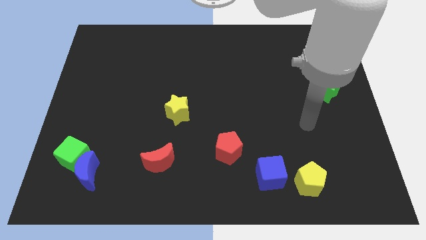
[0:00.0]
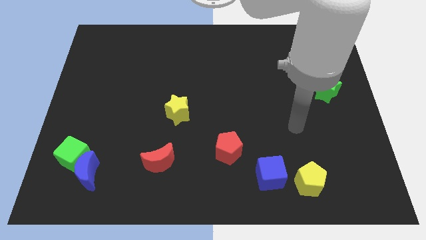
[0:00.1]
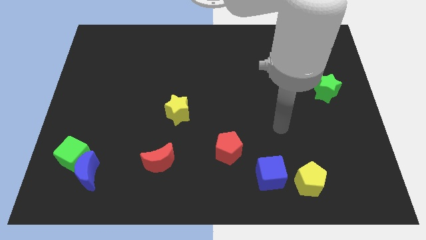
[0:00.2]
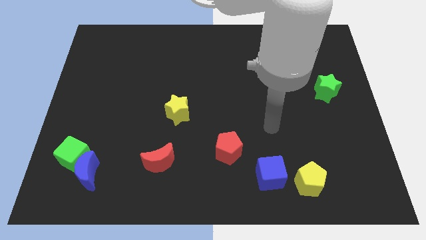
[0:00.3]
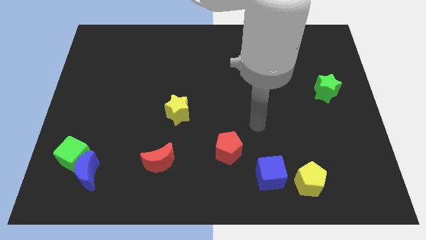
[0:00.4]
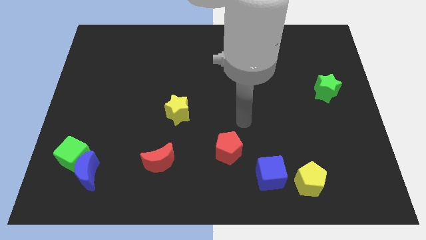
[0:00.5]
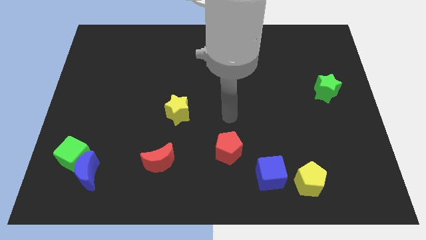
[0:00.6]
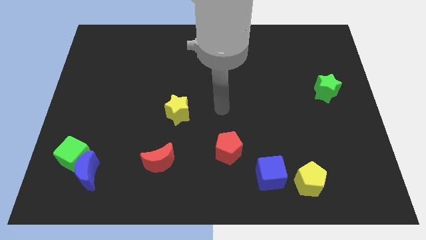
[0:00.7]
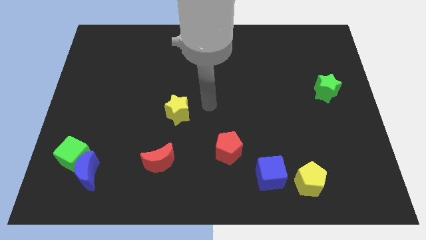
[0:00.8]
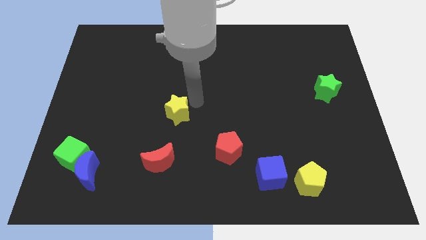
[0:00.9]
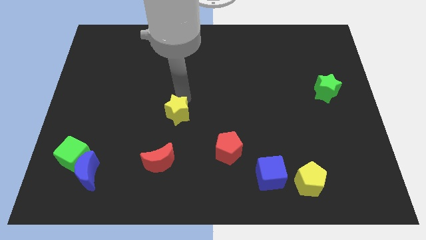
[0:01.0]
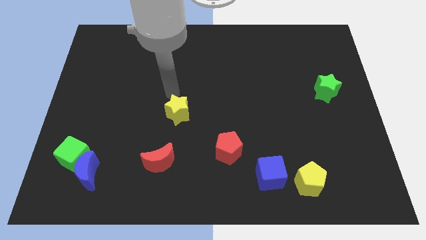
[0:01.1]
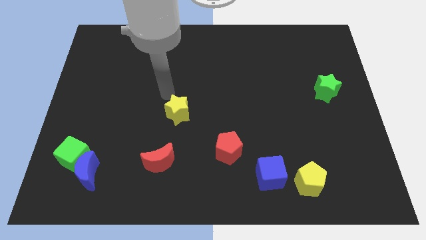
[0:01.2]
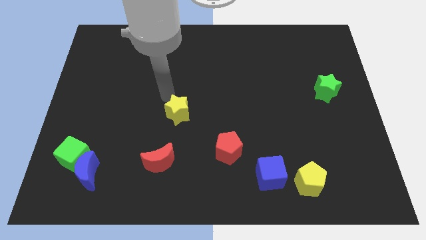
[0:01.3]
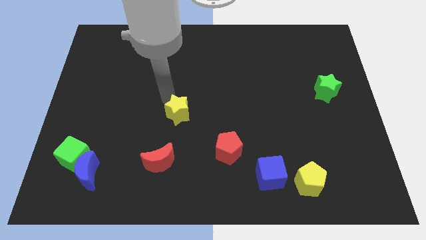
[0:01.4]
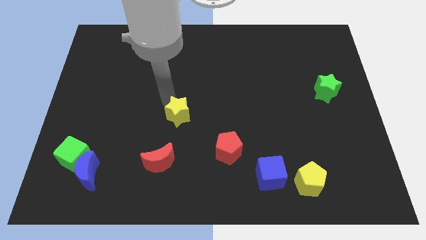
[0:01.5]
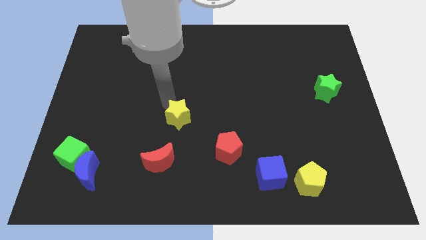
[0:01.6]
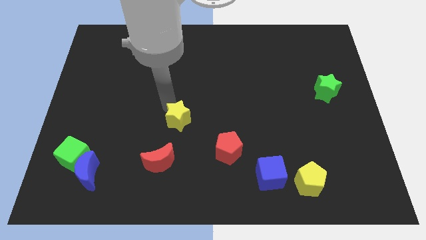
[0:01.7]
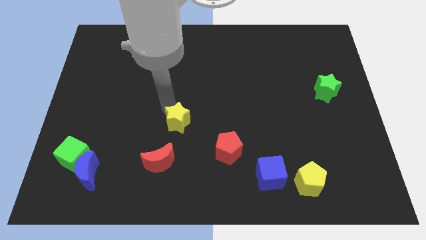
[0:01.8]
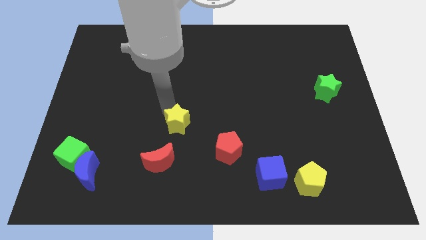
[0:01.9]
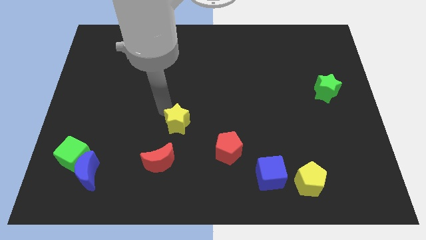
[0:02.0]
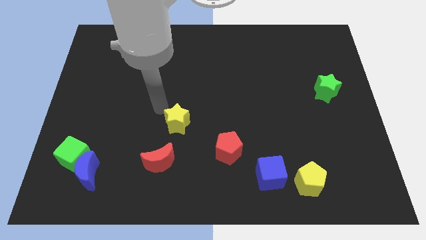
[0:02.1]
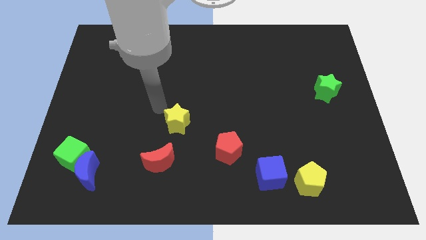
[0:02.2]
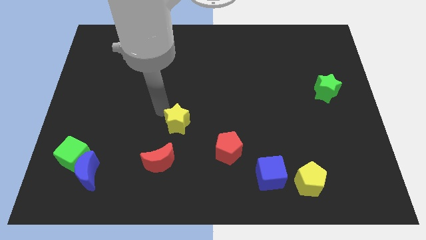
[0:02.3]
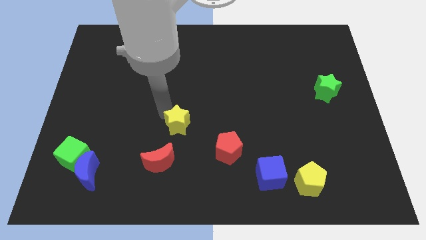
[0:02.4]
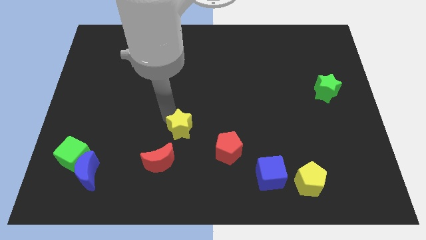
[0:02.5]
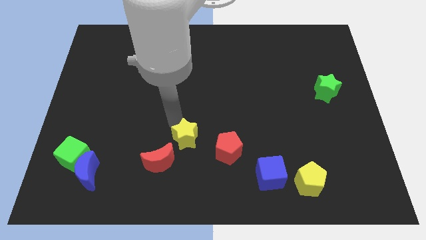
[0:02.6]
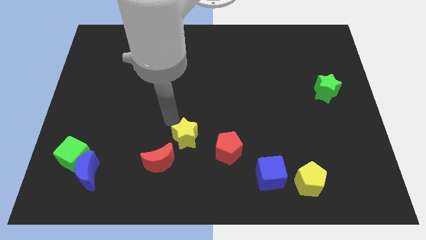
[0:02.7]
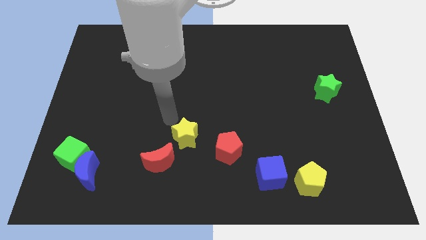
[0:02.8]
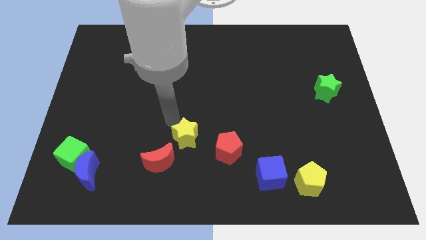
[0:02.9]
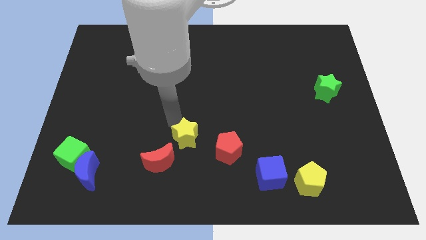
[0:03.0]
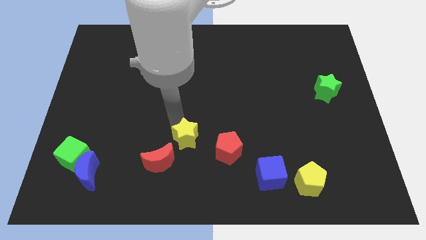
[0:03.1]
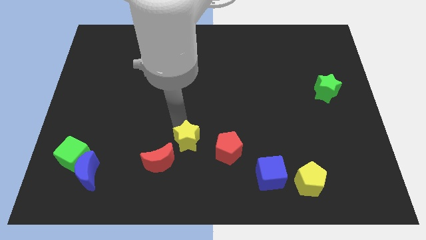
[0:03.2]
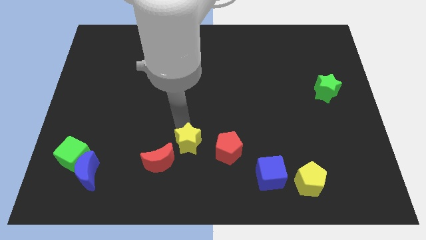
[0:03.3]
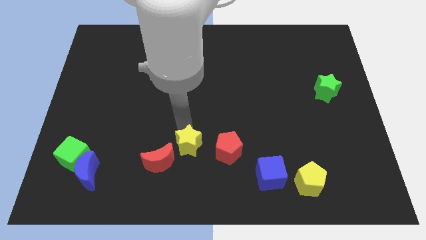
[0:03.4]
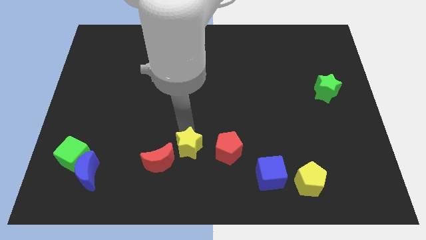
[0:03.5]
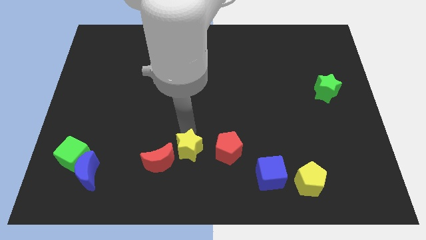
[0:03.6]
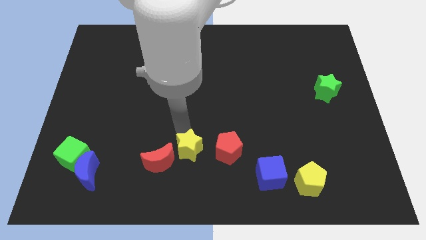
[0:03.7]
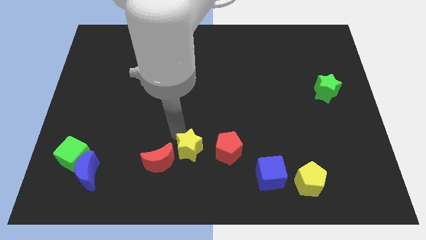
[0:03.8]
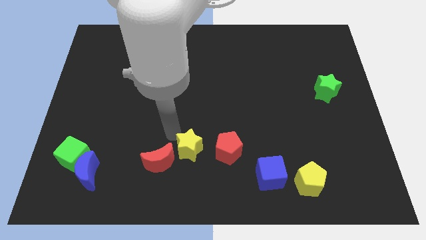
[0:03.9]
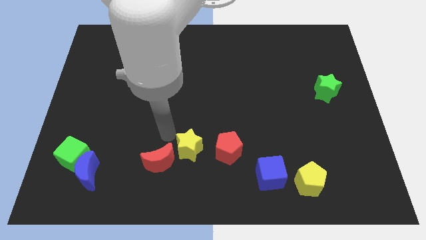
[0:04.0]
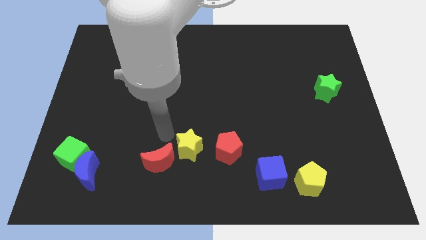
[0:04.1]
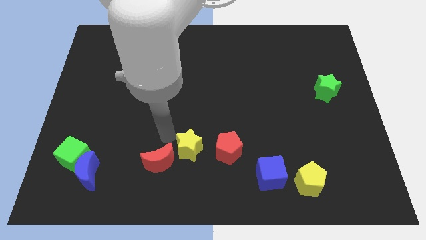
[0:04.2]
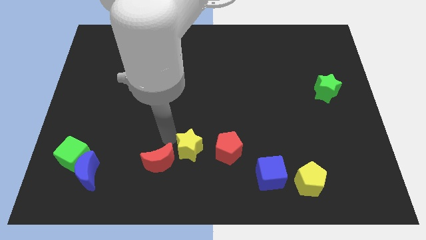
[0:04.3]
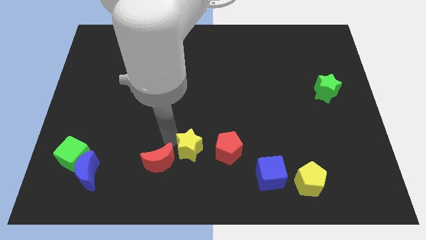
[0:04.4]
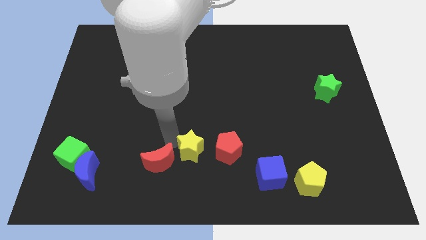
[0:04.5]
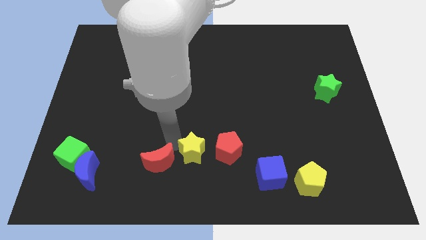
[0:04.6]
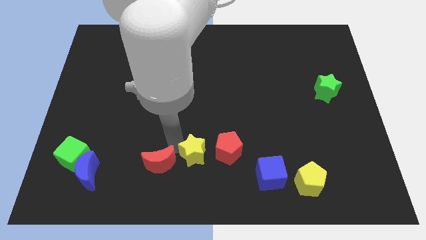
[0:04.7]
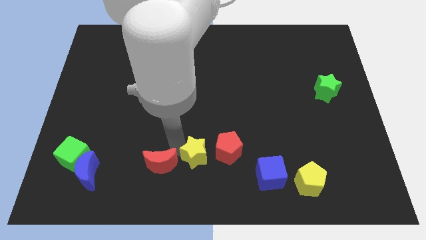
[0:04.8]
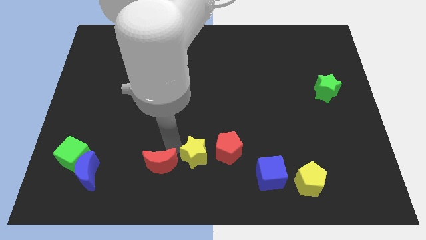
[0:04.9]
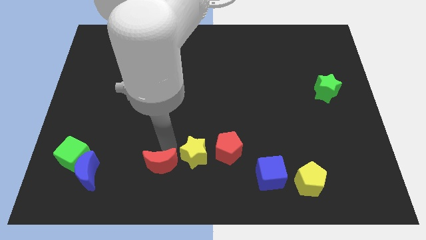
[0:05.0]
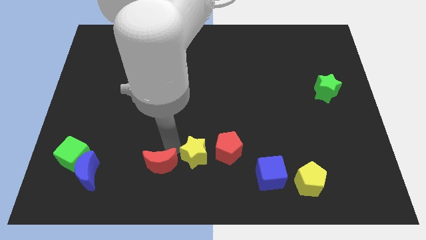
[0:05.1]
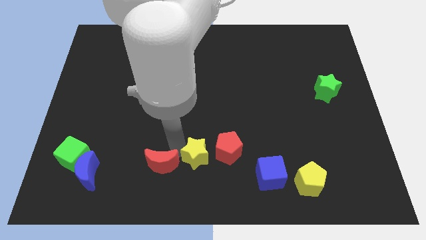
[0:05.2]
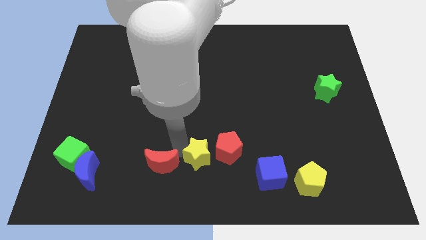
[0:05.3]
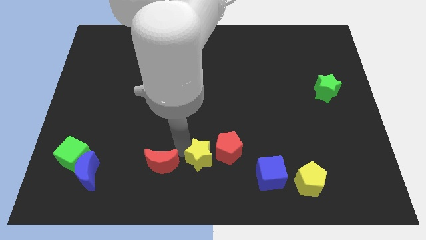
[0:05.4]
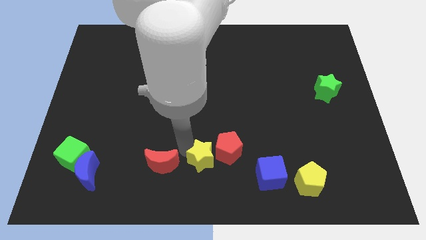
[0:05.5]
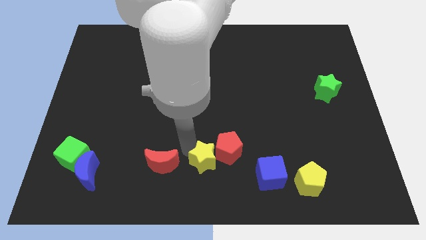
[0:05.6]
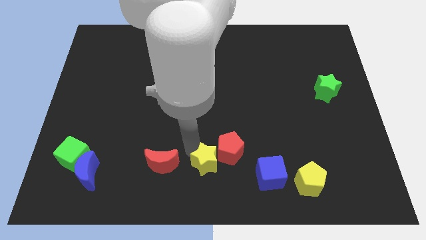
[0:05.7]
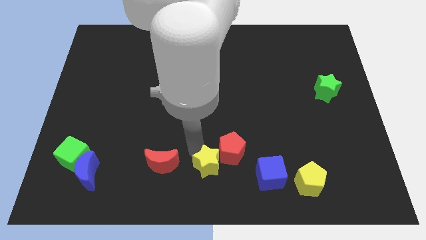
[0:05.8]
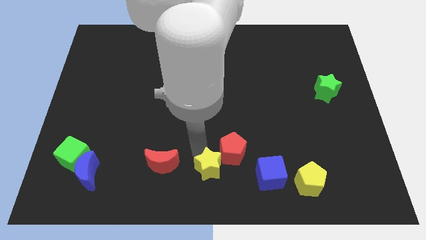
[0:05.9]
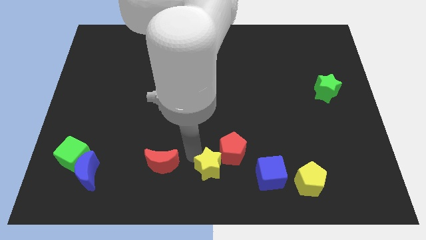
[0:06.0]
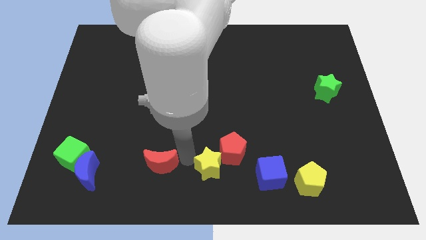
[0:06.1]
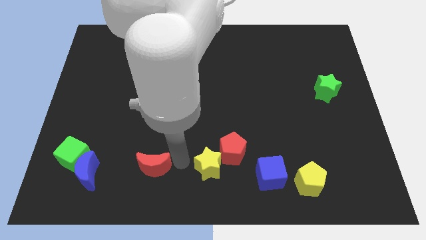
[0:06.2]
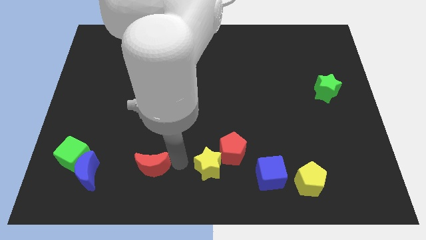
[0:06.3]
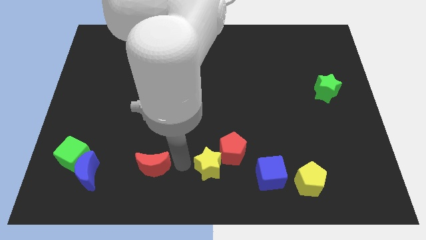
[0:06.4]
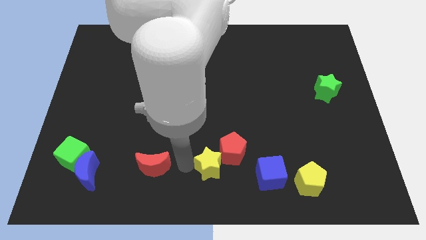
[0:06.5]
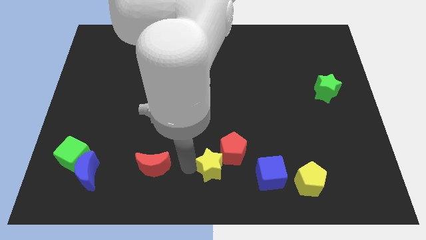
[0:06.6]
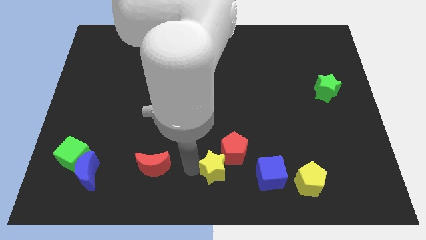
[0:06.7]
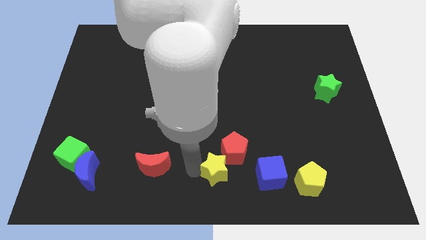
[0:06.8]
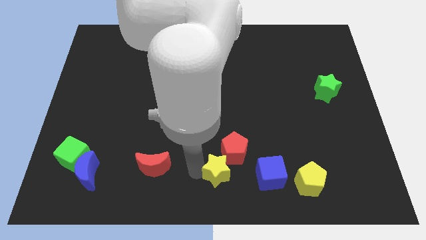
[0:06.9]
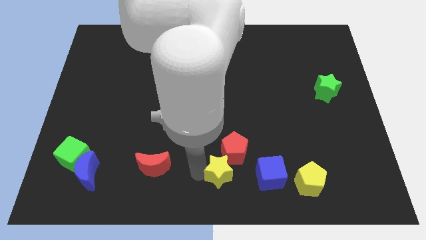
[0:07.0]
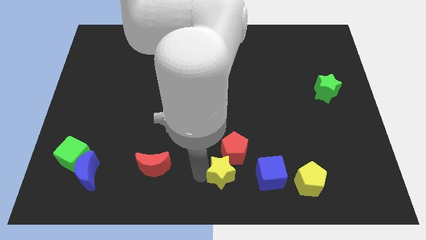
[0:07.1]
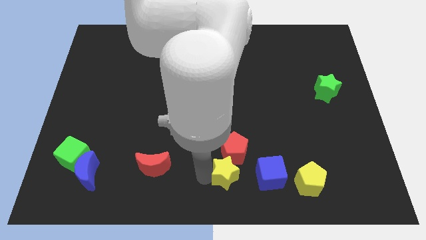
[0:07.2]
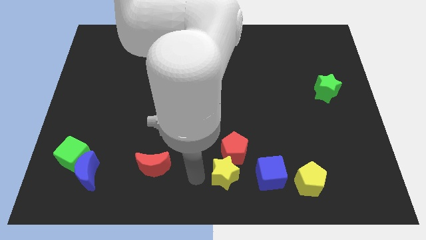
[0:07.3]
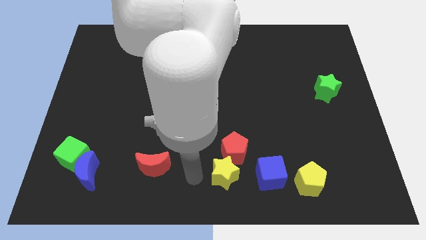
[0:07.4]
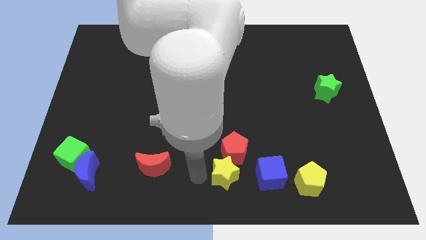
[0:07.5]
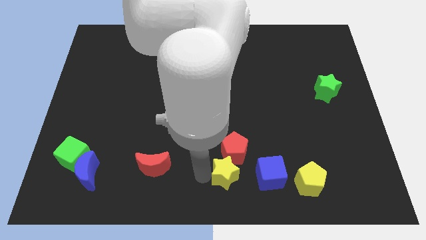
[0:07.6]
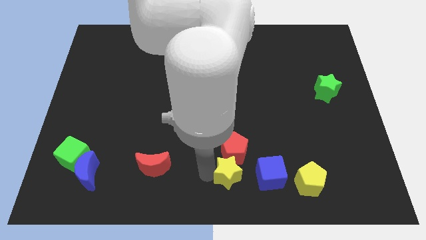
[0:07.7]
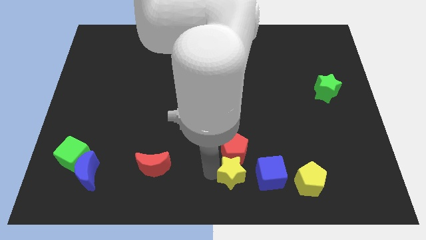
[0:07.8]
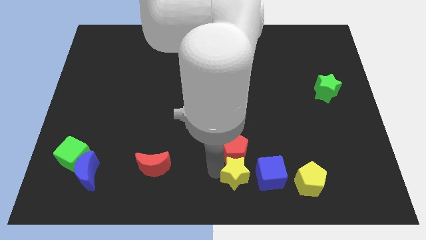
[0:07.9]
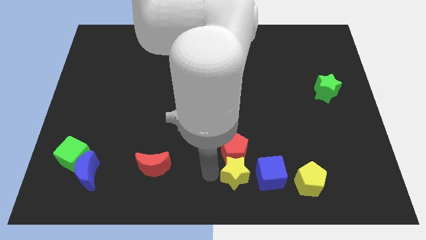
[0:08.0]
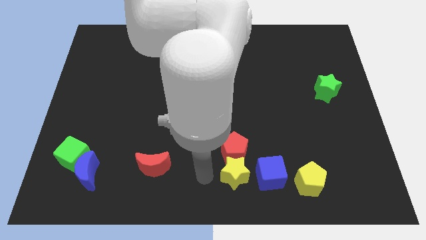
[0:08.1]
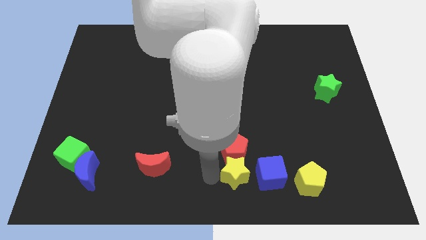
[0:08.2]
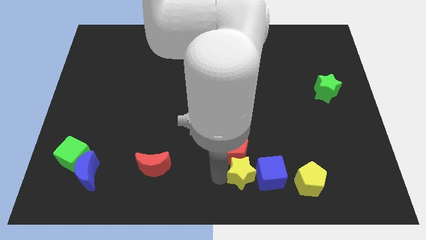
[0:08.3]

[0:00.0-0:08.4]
push the yellow star next to the blue cube
